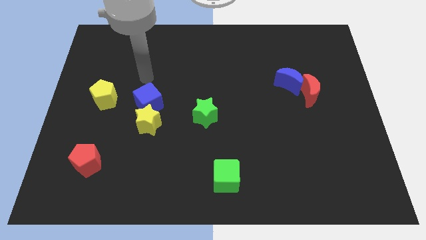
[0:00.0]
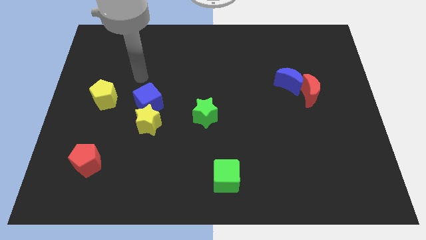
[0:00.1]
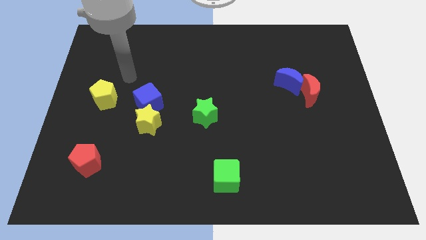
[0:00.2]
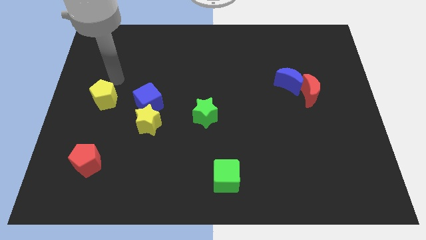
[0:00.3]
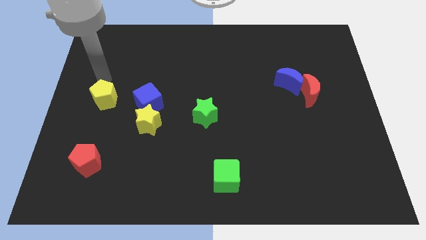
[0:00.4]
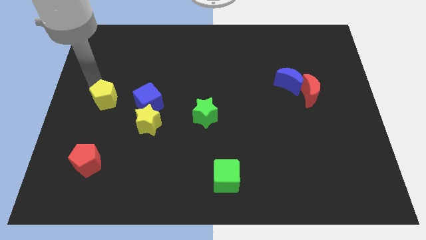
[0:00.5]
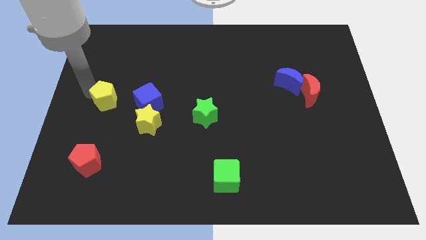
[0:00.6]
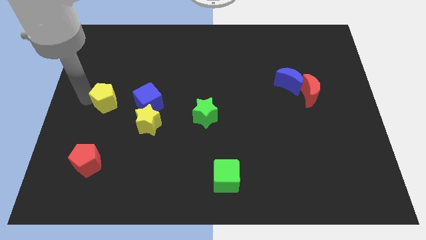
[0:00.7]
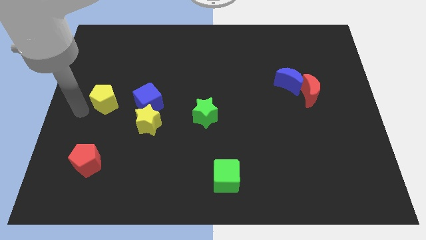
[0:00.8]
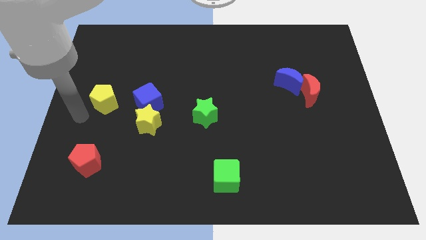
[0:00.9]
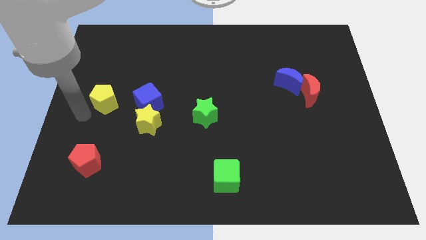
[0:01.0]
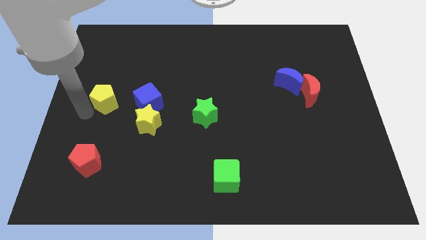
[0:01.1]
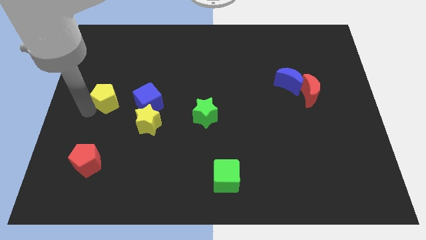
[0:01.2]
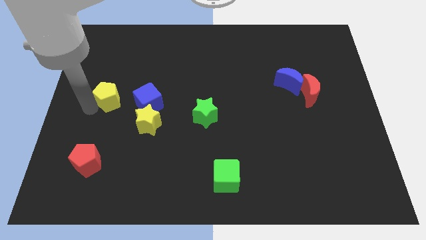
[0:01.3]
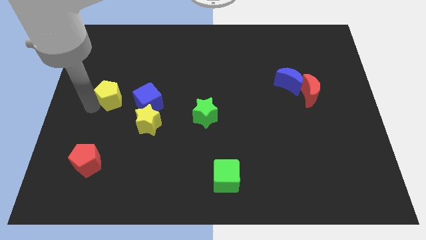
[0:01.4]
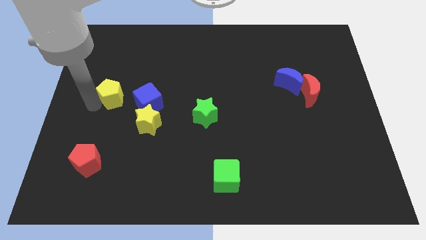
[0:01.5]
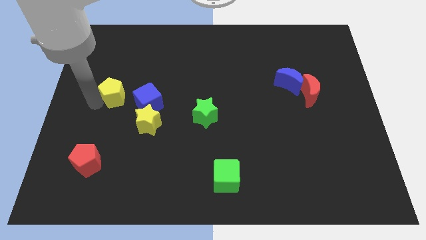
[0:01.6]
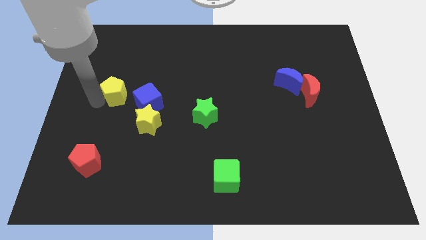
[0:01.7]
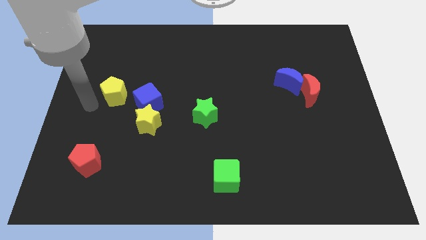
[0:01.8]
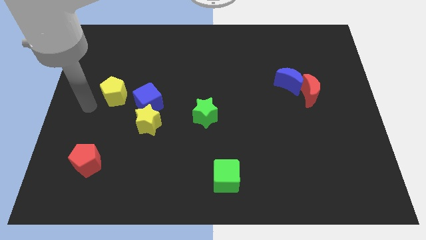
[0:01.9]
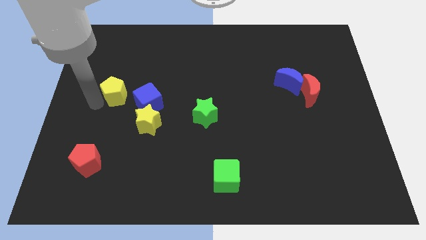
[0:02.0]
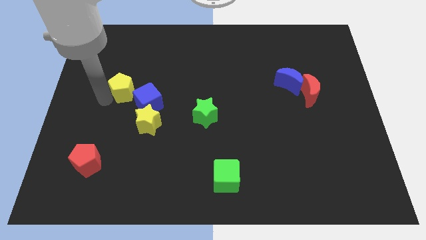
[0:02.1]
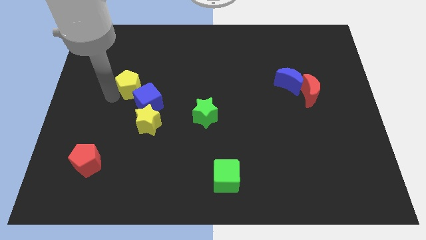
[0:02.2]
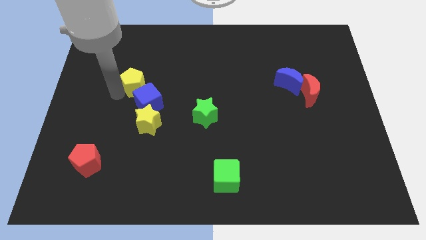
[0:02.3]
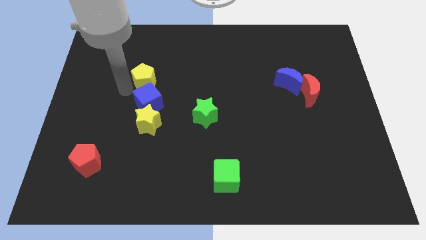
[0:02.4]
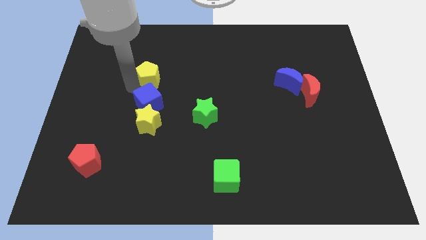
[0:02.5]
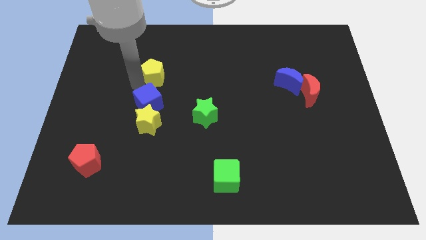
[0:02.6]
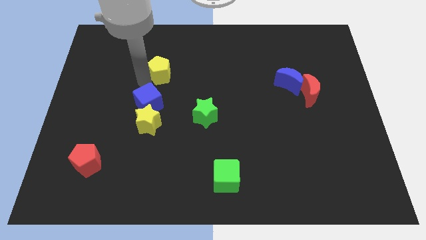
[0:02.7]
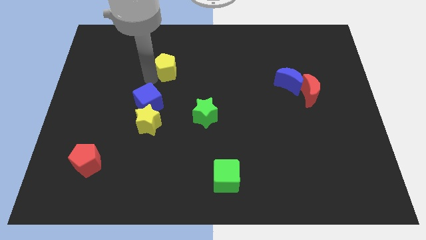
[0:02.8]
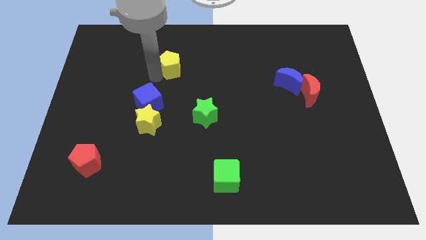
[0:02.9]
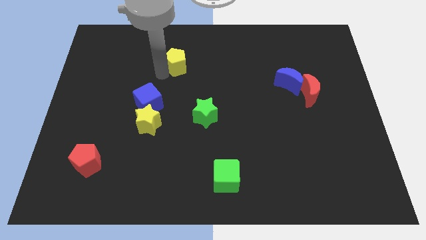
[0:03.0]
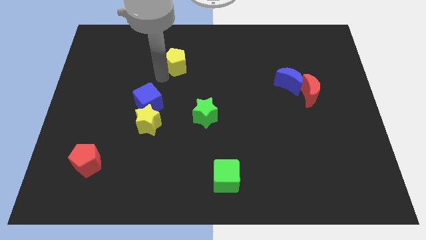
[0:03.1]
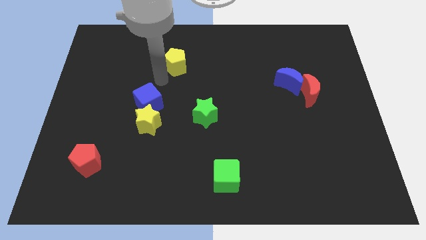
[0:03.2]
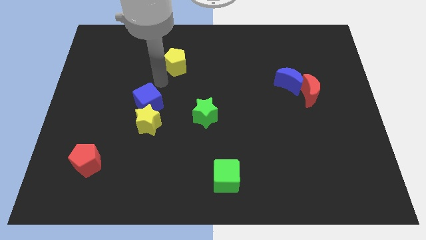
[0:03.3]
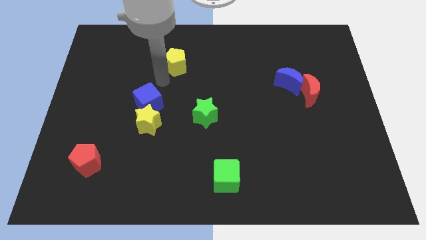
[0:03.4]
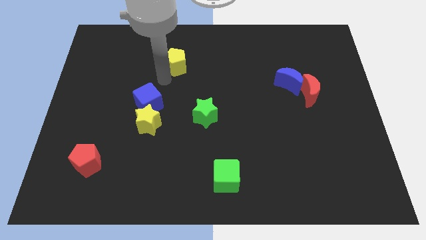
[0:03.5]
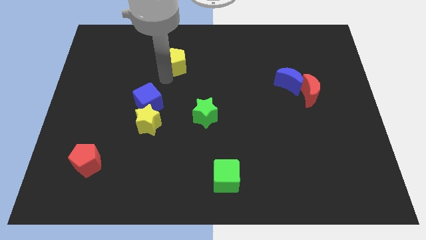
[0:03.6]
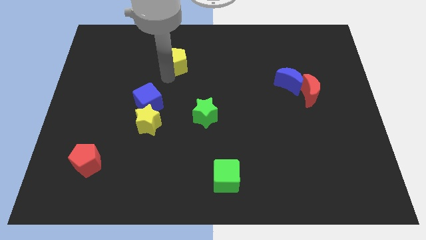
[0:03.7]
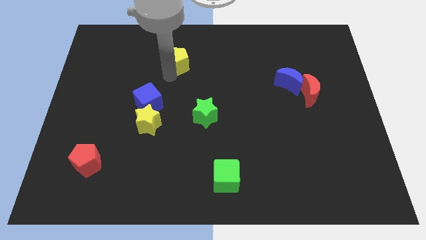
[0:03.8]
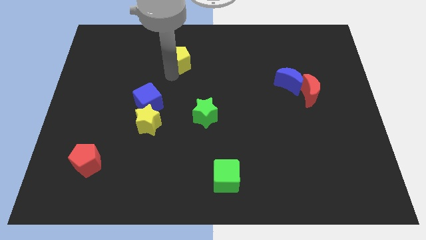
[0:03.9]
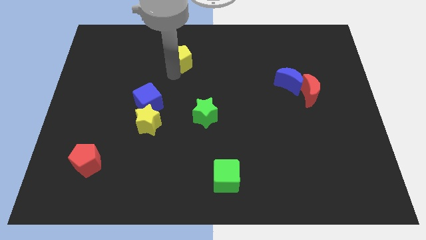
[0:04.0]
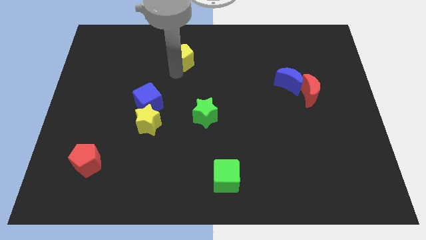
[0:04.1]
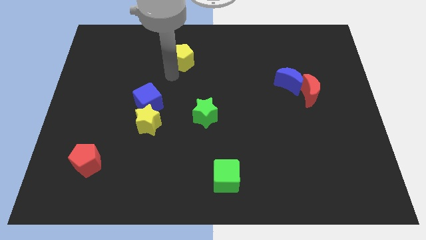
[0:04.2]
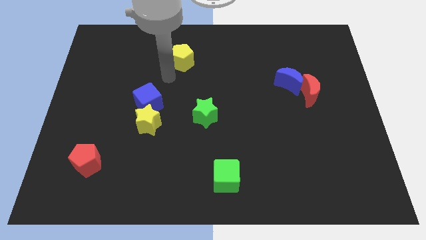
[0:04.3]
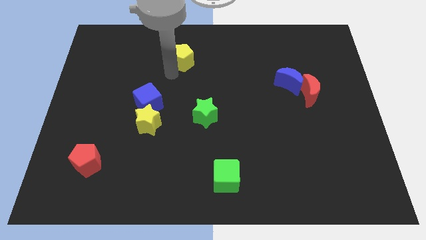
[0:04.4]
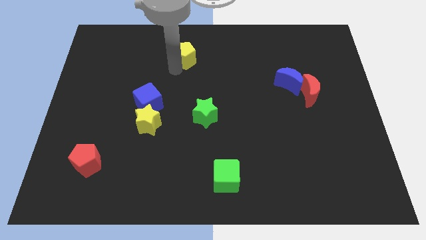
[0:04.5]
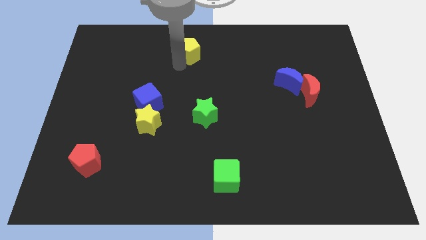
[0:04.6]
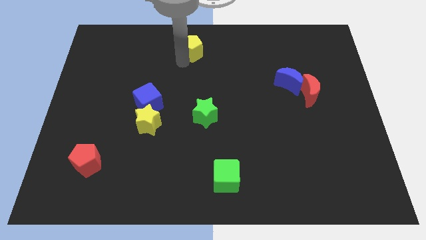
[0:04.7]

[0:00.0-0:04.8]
slide the yellow pentagon to the towards your base

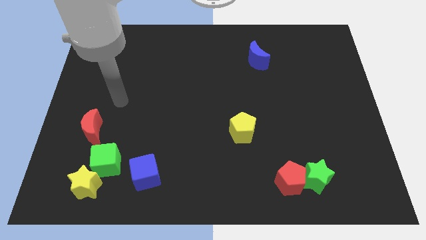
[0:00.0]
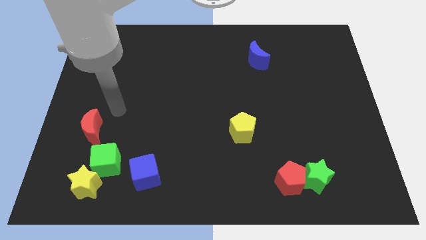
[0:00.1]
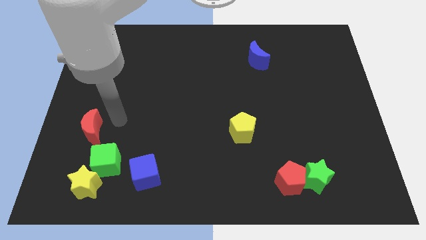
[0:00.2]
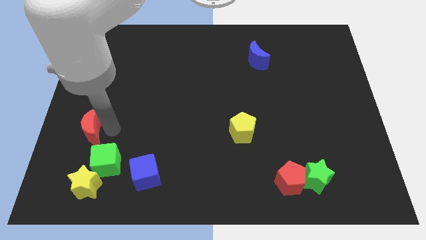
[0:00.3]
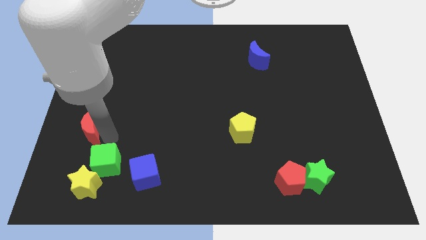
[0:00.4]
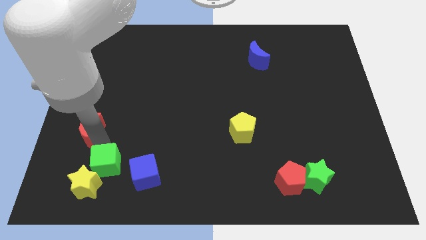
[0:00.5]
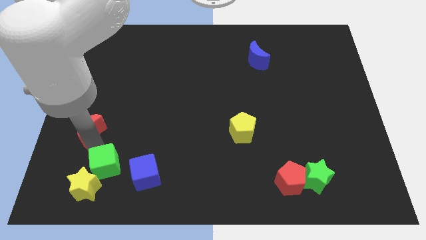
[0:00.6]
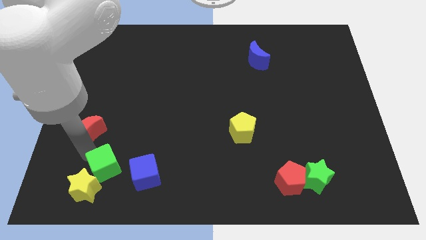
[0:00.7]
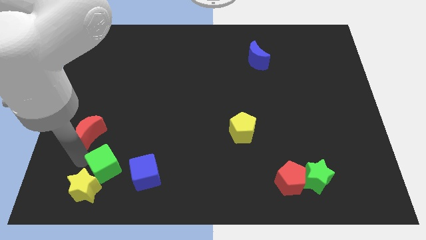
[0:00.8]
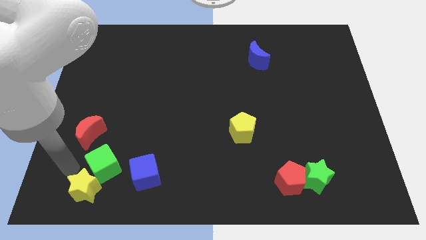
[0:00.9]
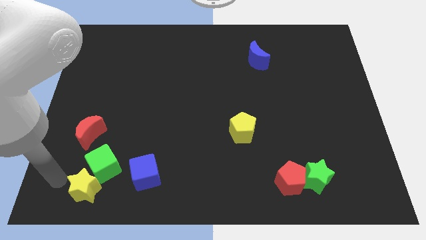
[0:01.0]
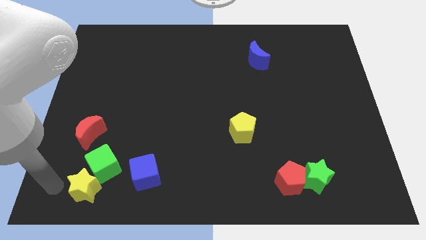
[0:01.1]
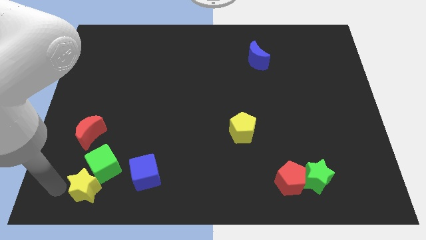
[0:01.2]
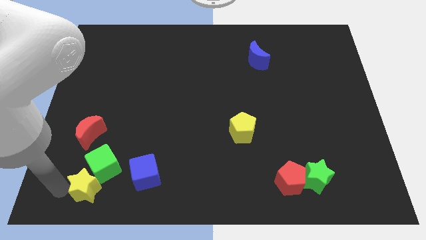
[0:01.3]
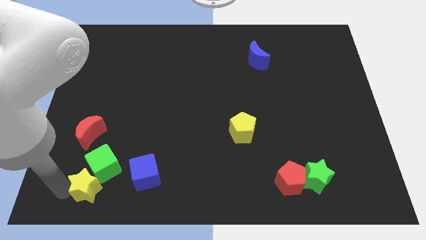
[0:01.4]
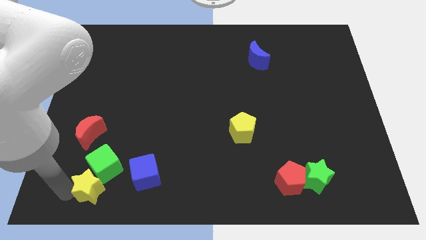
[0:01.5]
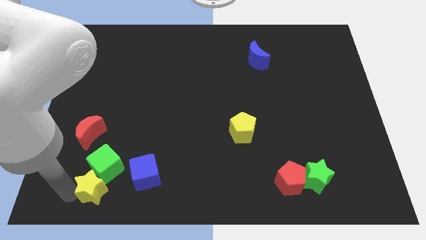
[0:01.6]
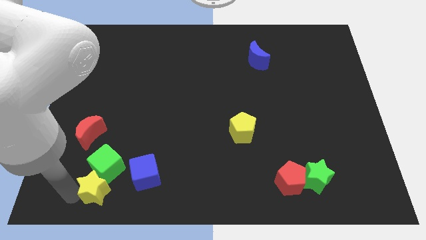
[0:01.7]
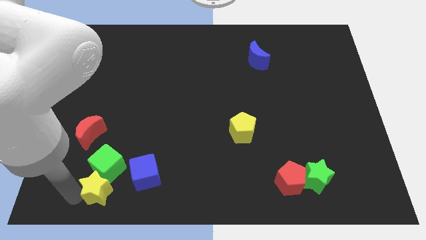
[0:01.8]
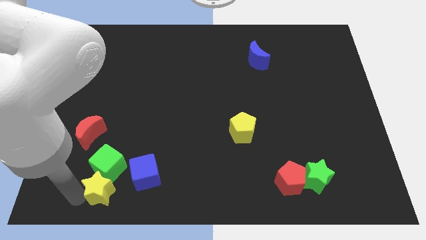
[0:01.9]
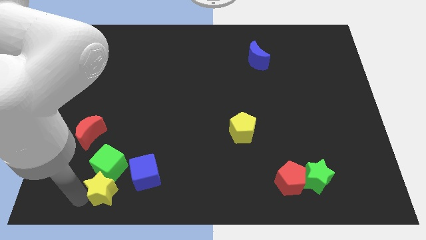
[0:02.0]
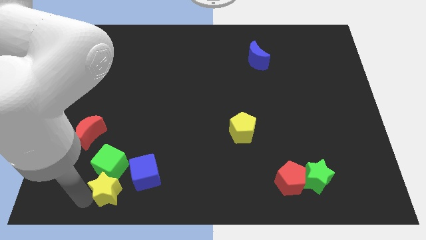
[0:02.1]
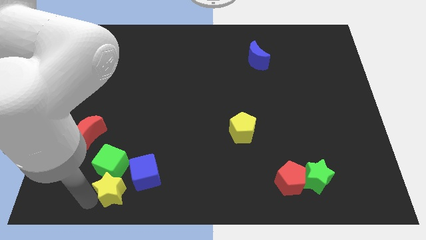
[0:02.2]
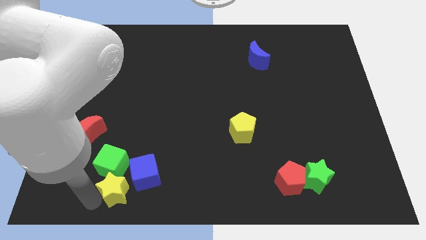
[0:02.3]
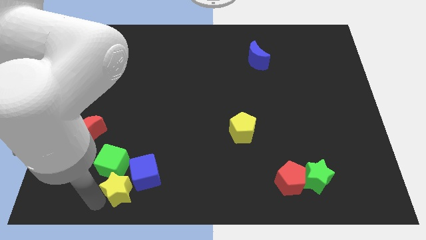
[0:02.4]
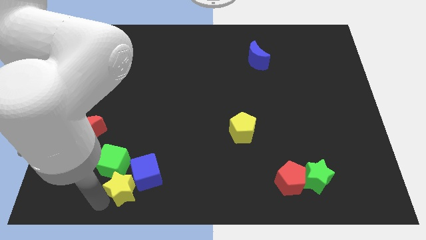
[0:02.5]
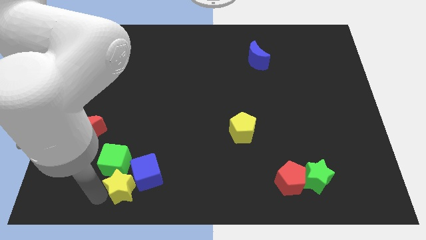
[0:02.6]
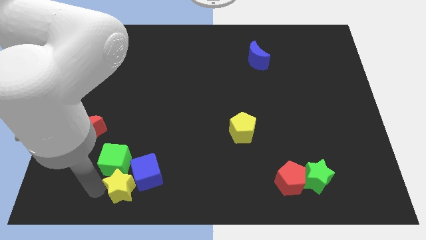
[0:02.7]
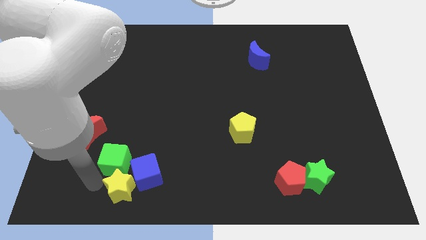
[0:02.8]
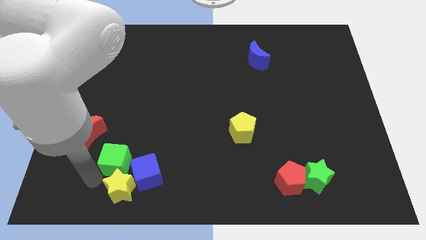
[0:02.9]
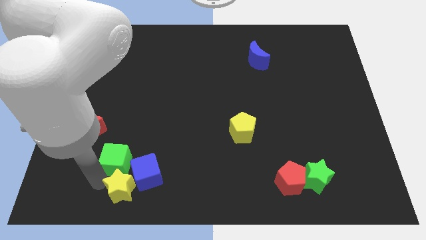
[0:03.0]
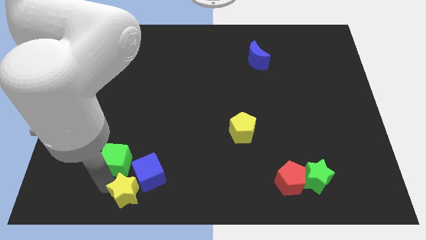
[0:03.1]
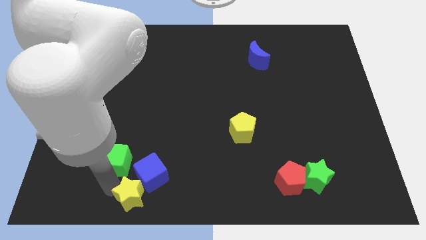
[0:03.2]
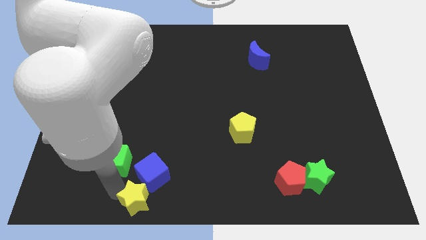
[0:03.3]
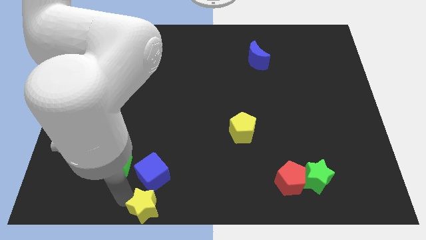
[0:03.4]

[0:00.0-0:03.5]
push the yellow star to the bottom side
